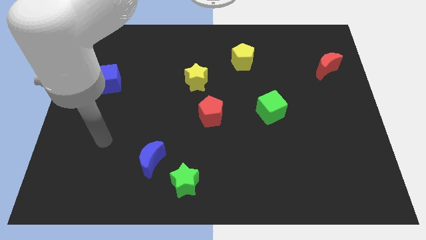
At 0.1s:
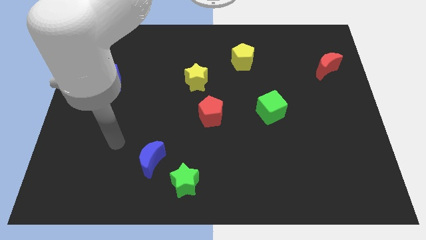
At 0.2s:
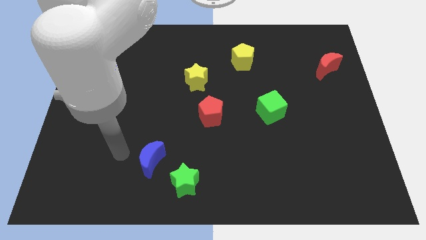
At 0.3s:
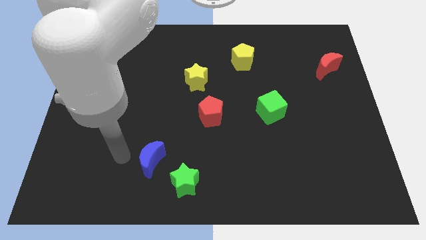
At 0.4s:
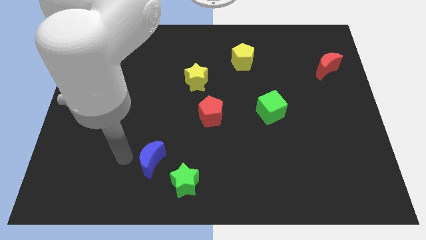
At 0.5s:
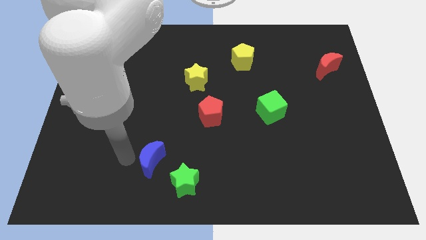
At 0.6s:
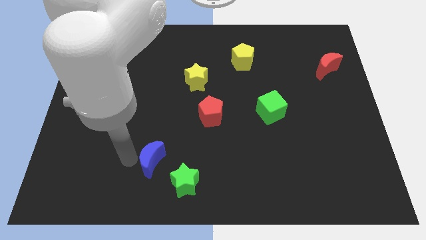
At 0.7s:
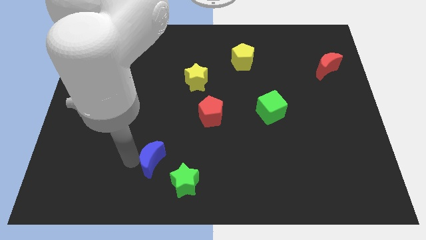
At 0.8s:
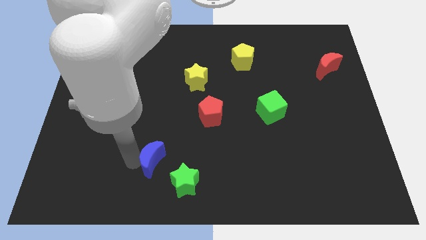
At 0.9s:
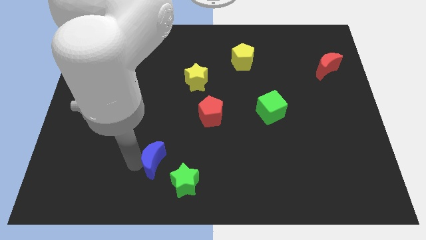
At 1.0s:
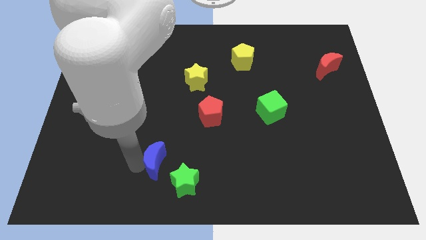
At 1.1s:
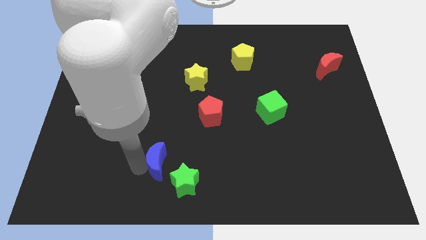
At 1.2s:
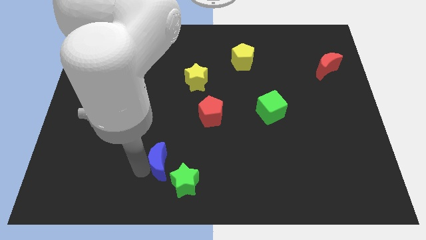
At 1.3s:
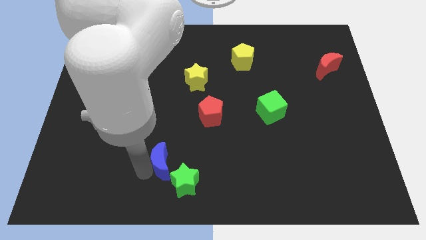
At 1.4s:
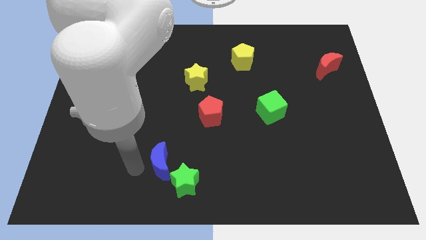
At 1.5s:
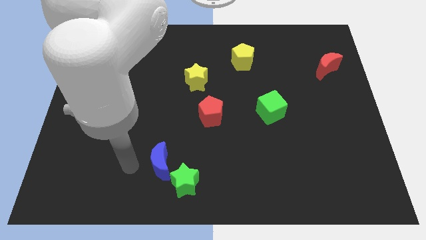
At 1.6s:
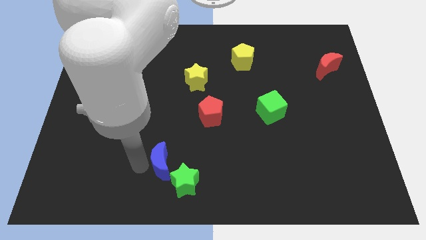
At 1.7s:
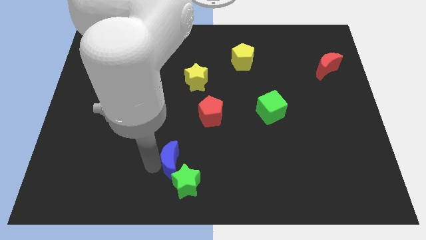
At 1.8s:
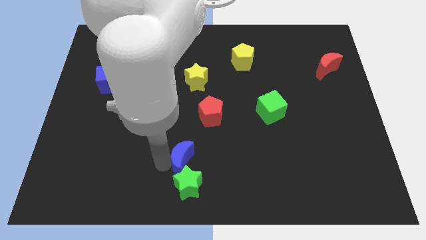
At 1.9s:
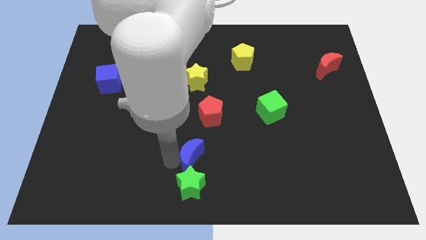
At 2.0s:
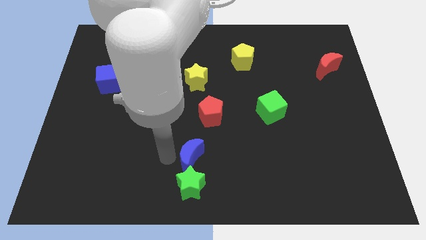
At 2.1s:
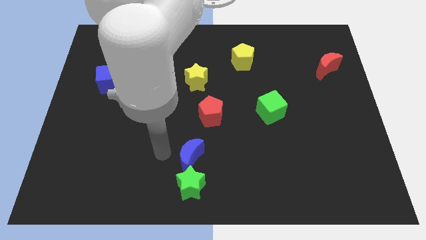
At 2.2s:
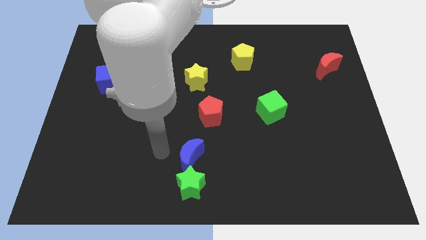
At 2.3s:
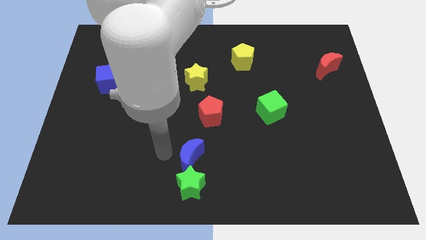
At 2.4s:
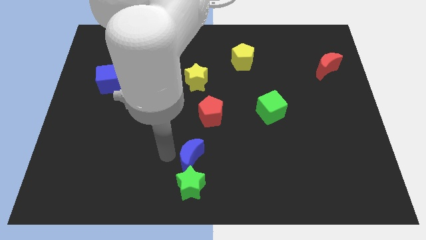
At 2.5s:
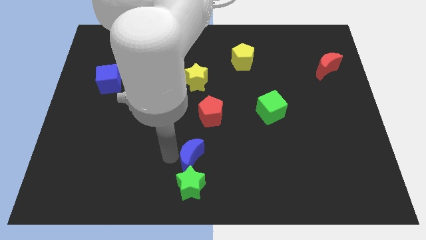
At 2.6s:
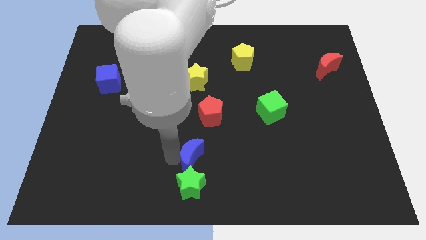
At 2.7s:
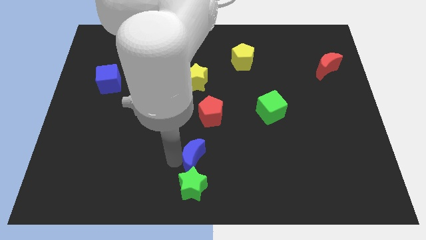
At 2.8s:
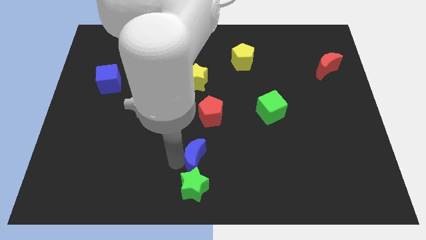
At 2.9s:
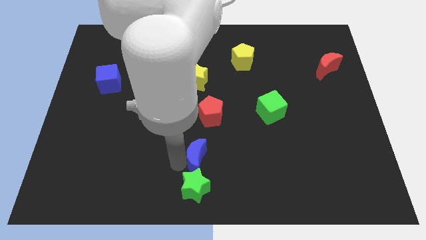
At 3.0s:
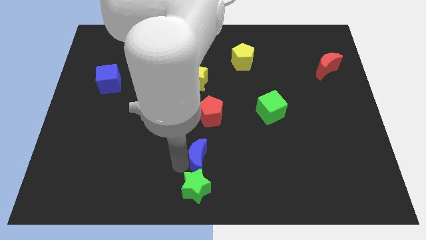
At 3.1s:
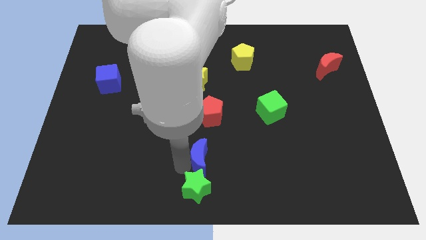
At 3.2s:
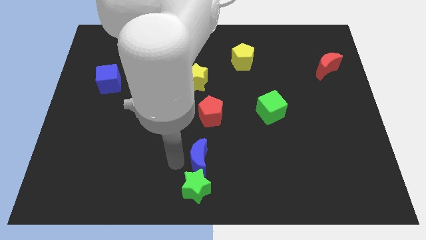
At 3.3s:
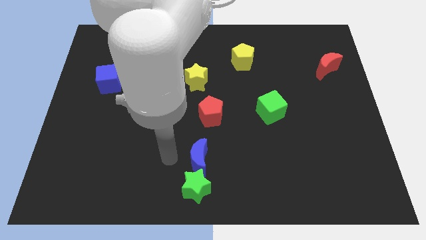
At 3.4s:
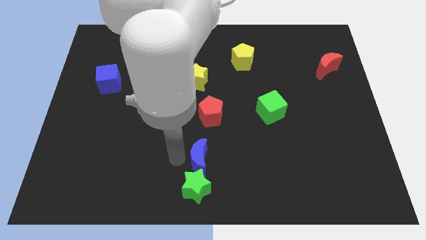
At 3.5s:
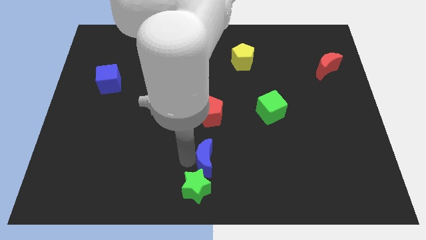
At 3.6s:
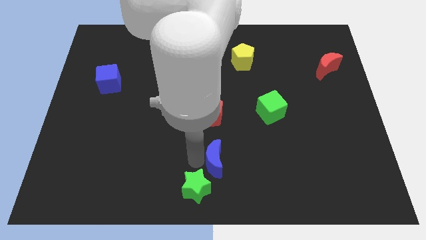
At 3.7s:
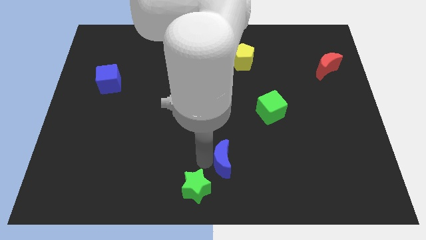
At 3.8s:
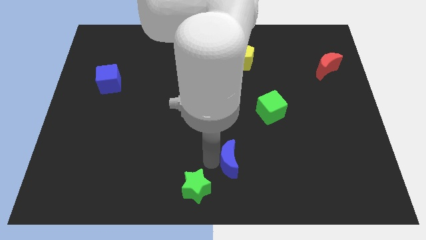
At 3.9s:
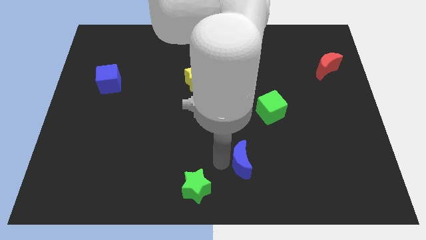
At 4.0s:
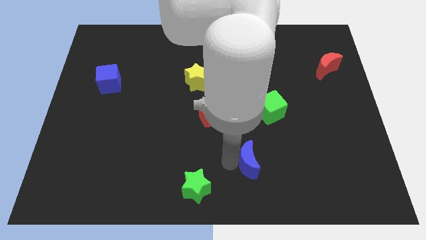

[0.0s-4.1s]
push the blue moon to the right

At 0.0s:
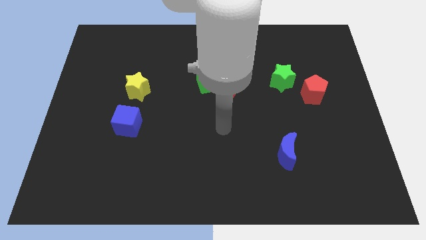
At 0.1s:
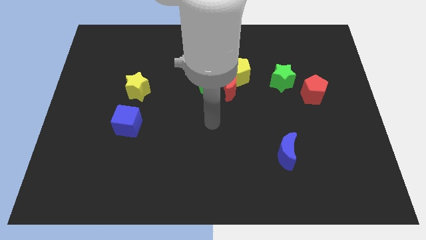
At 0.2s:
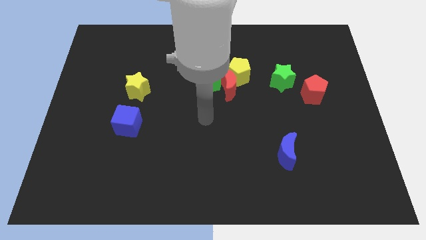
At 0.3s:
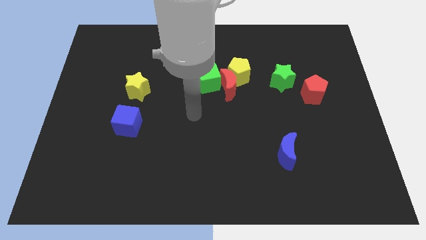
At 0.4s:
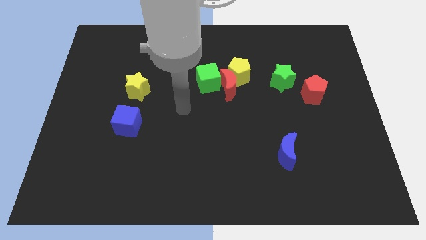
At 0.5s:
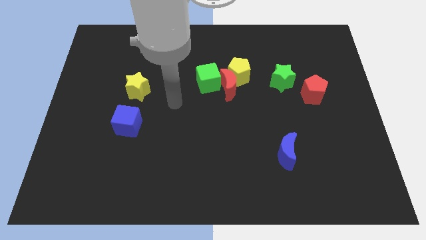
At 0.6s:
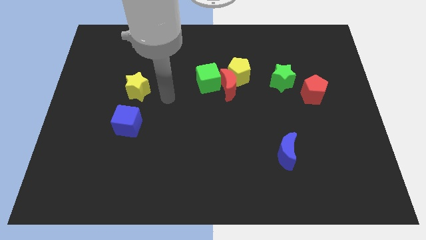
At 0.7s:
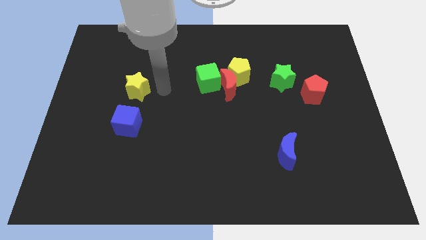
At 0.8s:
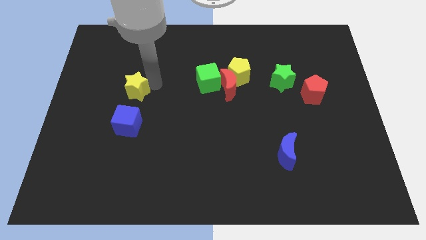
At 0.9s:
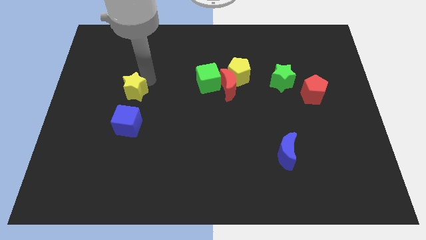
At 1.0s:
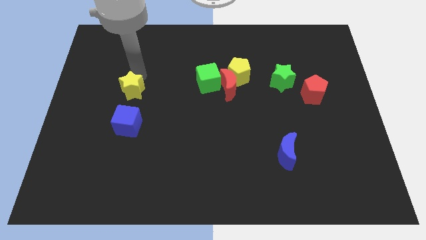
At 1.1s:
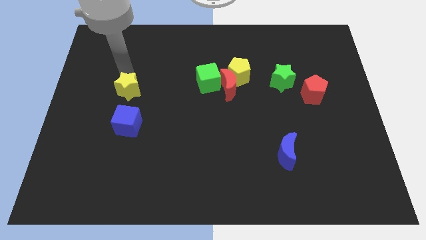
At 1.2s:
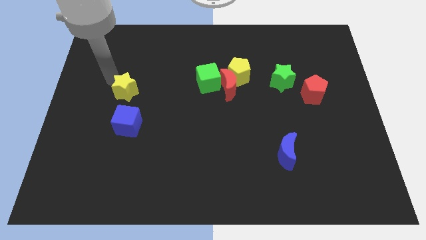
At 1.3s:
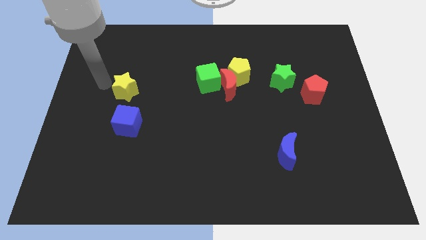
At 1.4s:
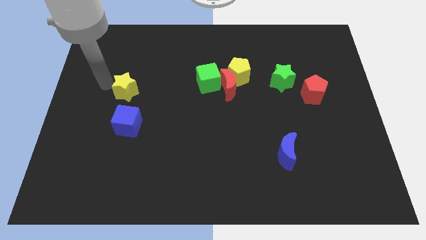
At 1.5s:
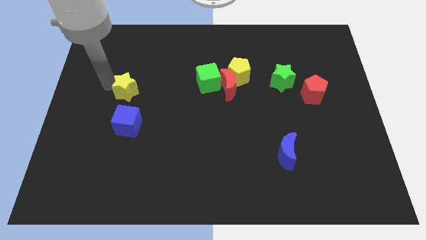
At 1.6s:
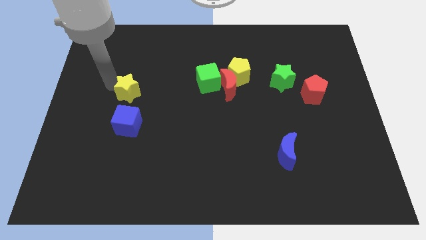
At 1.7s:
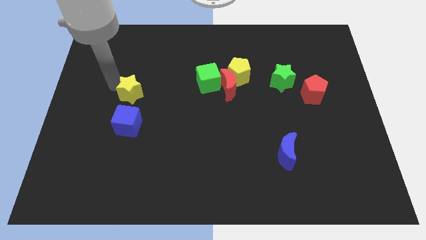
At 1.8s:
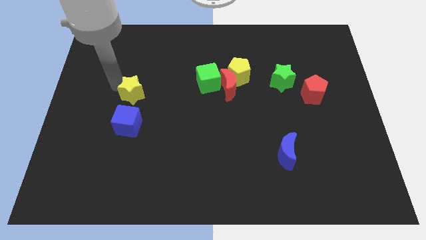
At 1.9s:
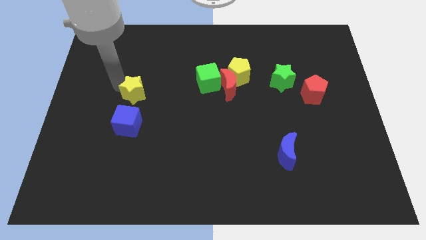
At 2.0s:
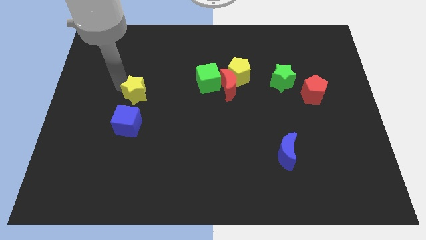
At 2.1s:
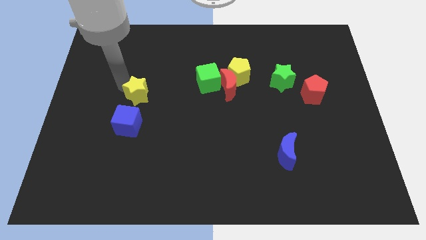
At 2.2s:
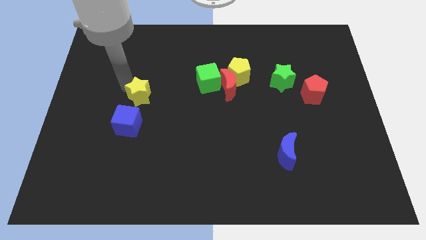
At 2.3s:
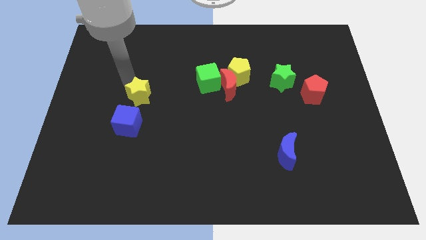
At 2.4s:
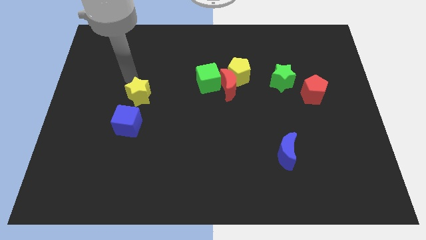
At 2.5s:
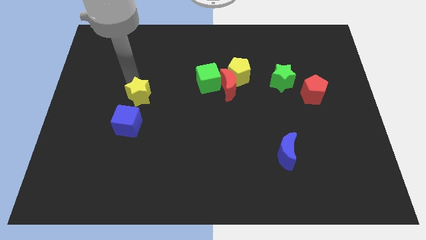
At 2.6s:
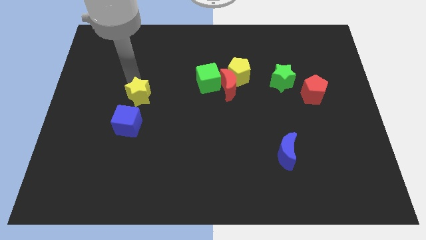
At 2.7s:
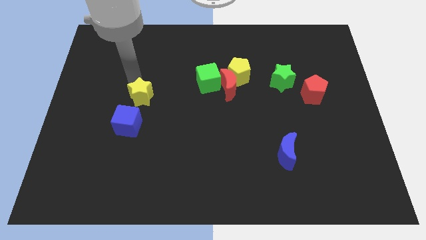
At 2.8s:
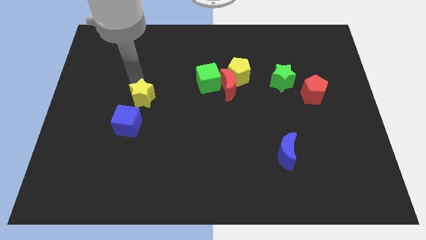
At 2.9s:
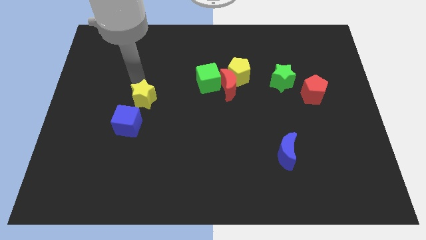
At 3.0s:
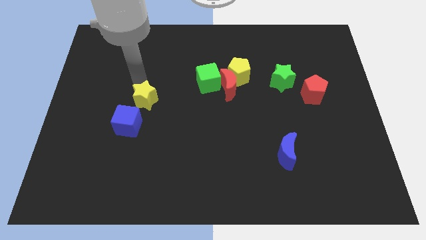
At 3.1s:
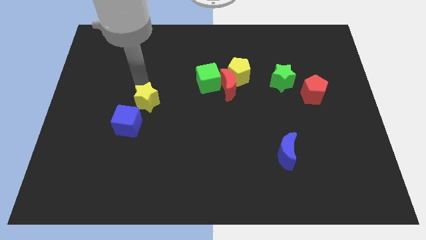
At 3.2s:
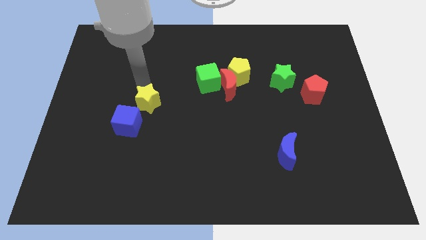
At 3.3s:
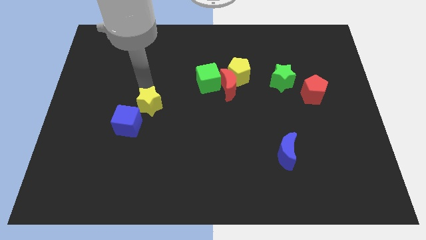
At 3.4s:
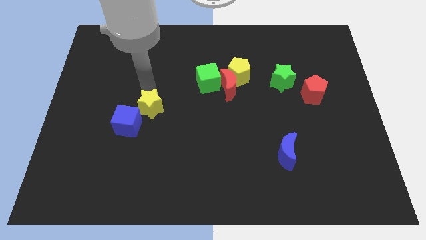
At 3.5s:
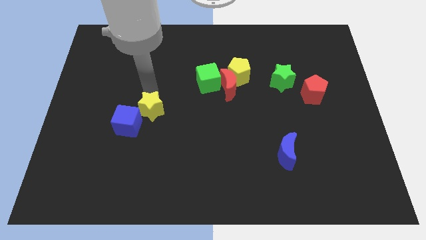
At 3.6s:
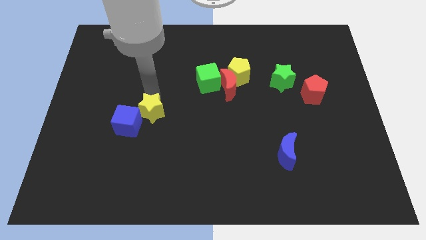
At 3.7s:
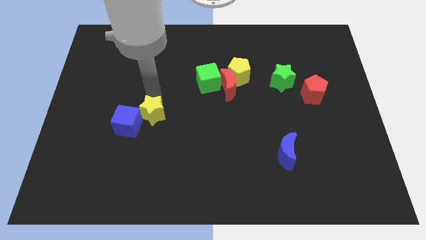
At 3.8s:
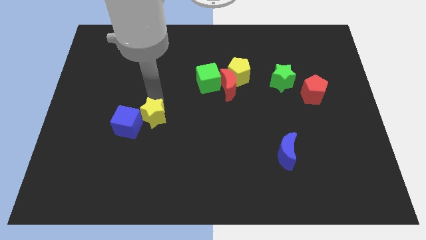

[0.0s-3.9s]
push the yellow star downwards somewhat
